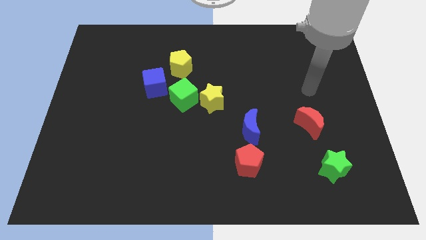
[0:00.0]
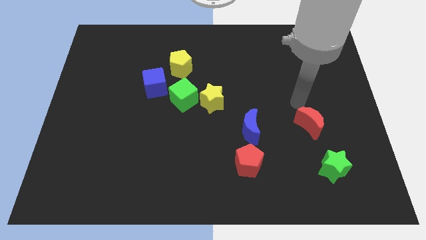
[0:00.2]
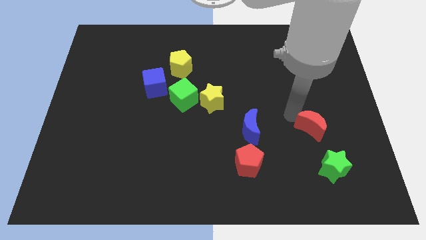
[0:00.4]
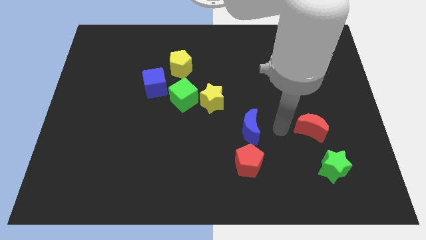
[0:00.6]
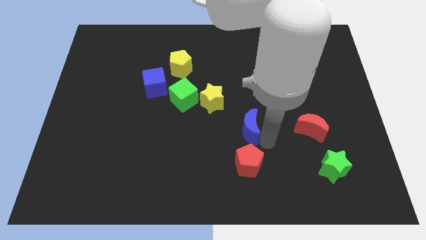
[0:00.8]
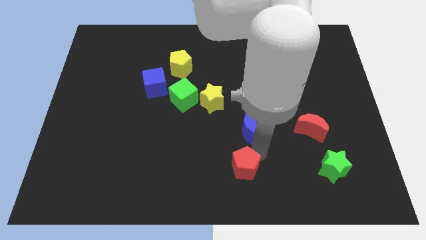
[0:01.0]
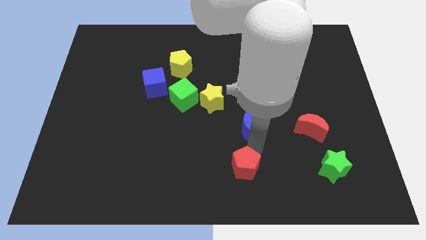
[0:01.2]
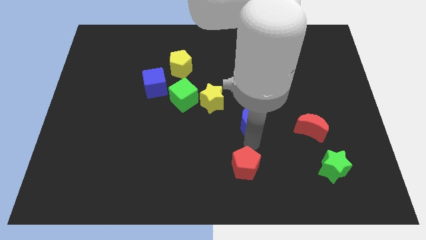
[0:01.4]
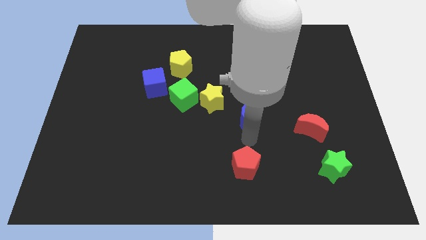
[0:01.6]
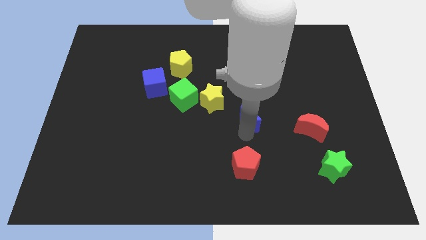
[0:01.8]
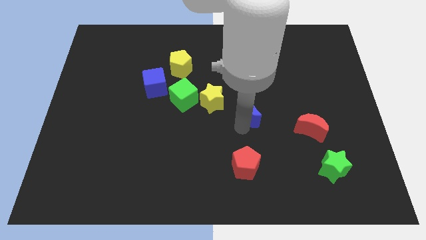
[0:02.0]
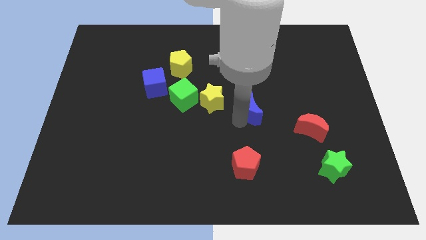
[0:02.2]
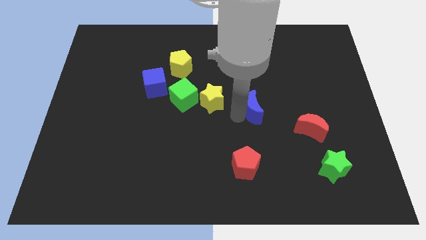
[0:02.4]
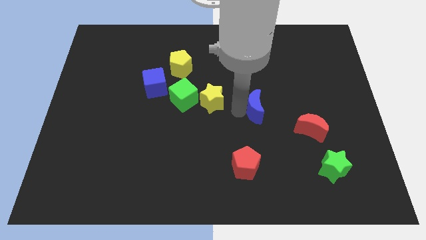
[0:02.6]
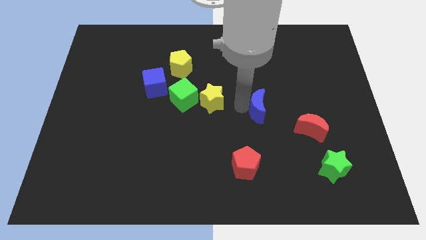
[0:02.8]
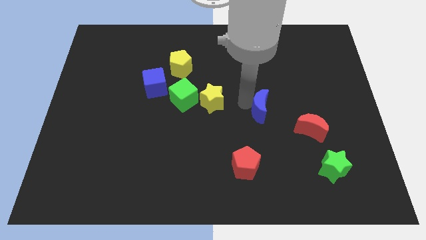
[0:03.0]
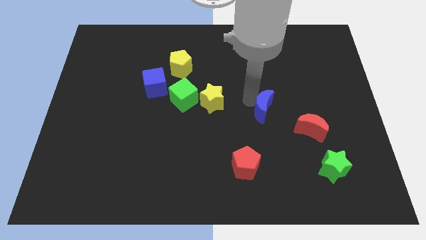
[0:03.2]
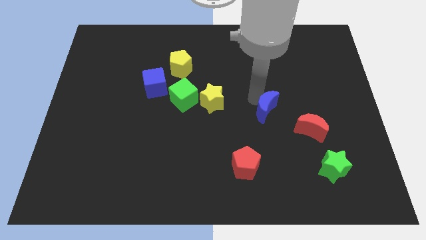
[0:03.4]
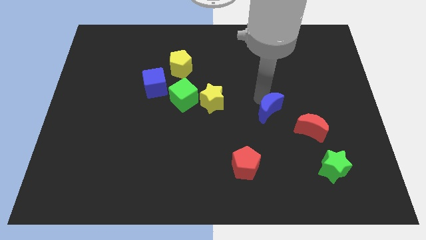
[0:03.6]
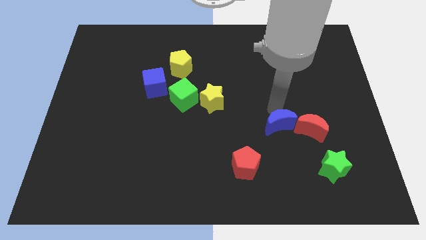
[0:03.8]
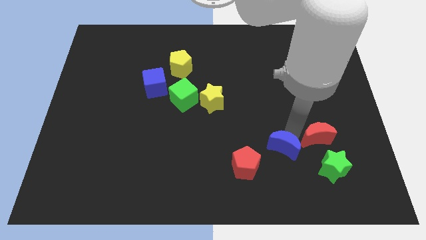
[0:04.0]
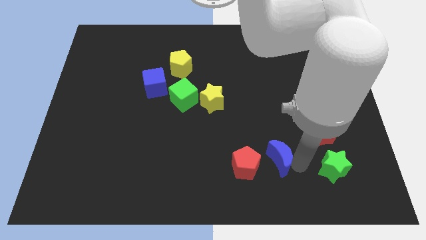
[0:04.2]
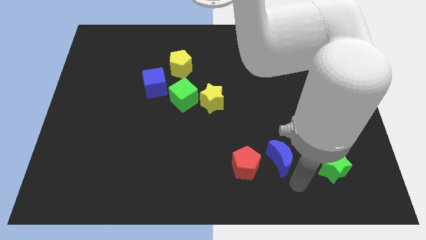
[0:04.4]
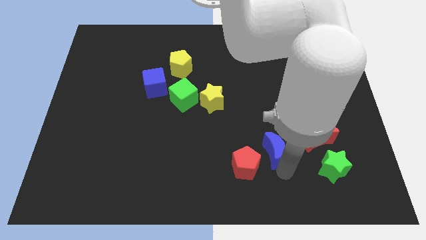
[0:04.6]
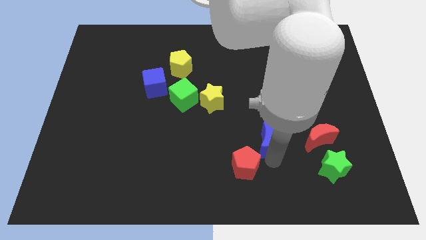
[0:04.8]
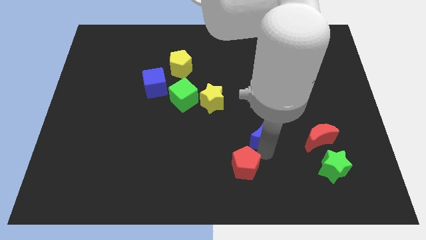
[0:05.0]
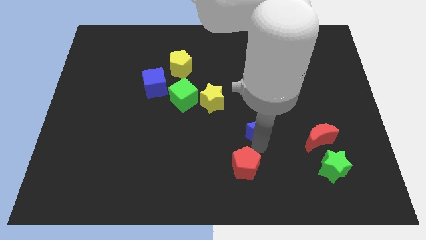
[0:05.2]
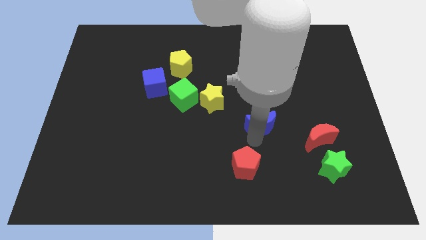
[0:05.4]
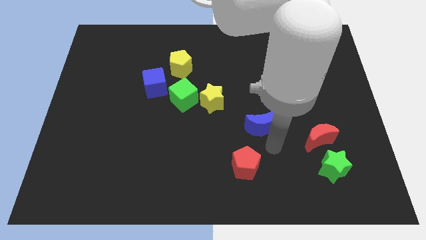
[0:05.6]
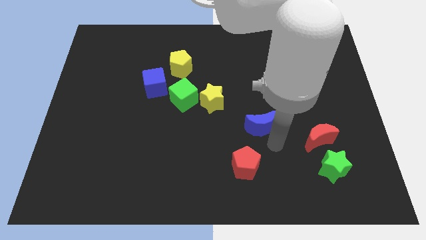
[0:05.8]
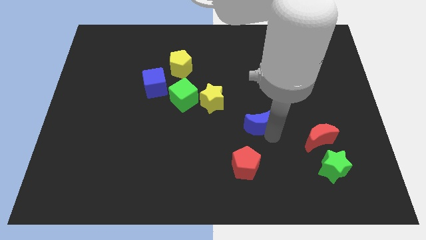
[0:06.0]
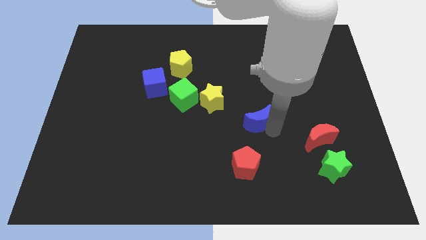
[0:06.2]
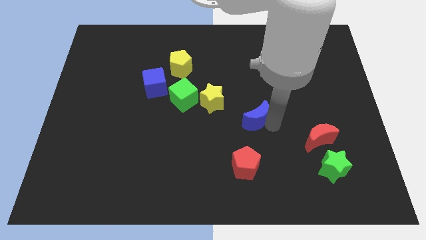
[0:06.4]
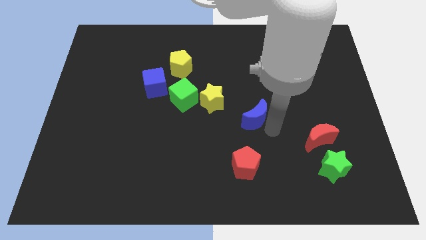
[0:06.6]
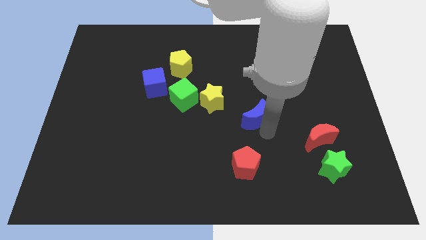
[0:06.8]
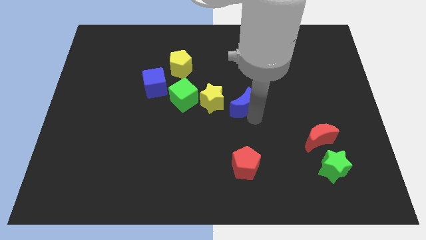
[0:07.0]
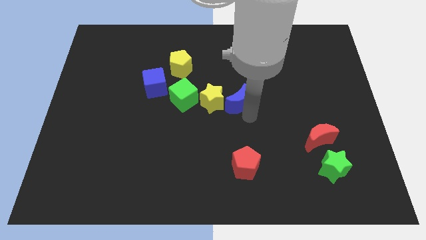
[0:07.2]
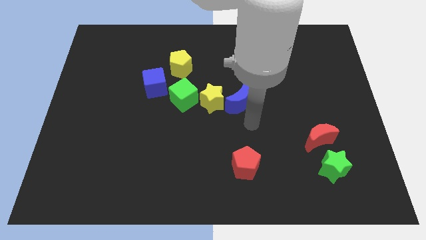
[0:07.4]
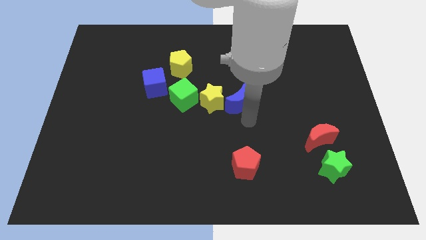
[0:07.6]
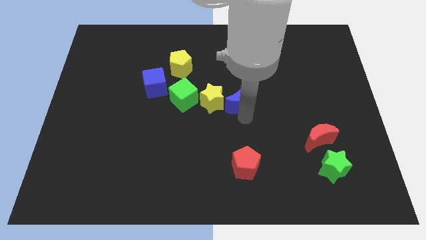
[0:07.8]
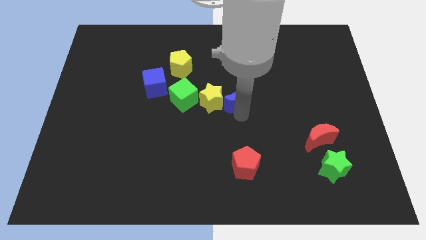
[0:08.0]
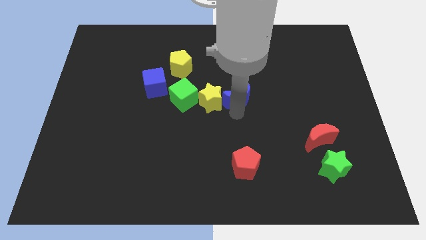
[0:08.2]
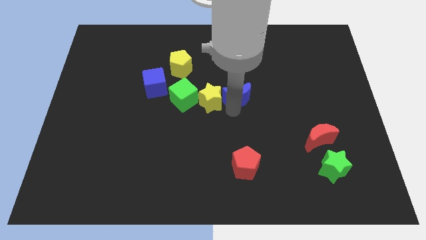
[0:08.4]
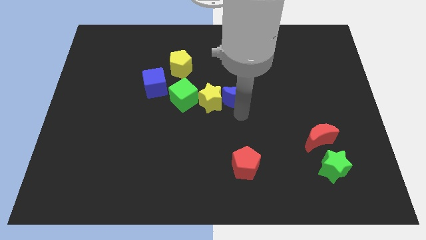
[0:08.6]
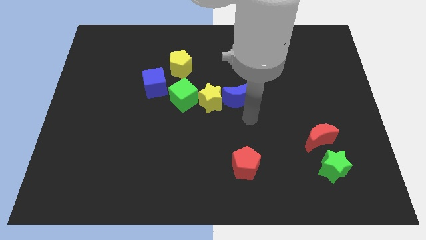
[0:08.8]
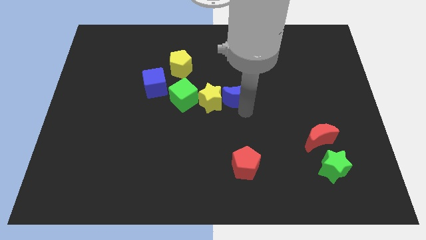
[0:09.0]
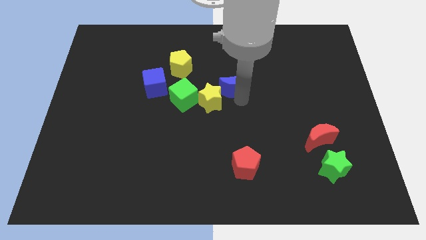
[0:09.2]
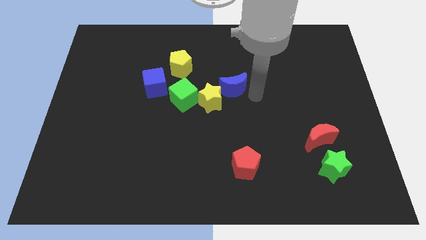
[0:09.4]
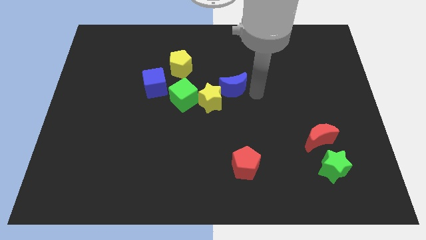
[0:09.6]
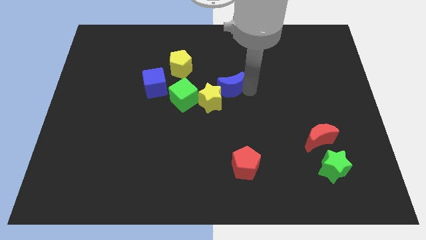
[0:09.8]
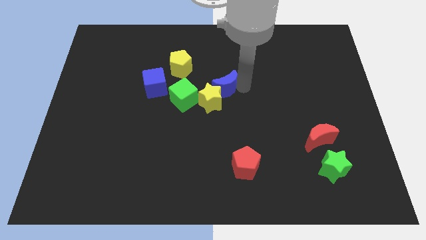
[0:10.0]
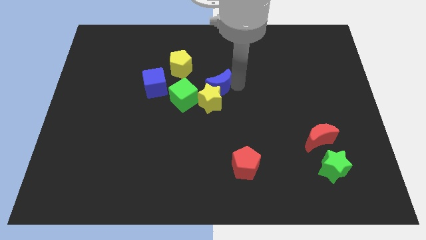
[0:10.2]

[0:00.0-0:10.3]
move the blue moon diagonally down and to the right of the yellow pentagon

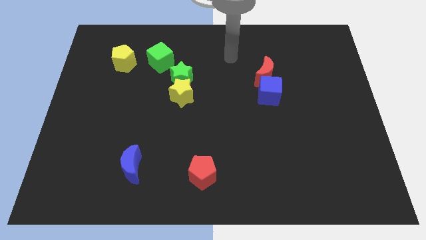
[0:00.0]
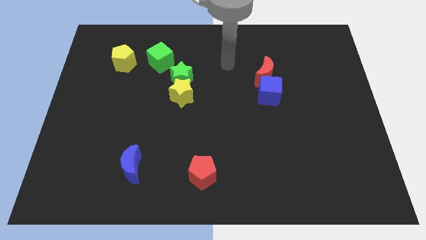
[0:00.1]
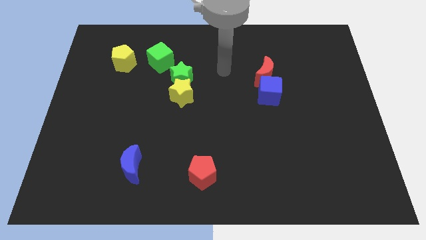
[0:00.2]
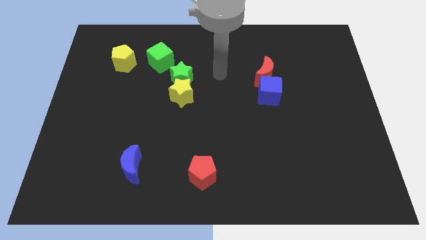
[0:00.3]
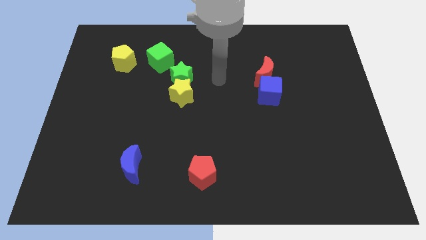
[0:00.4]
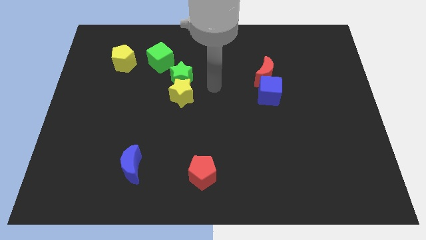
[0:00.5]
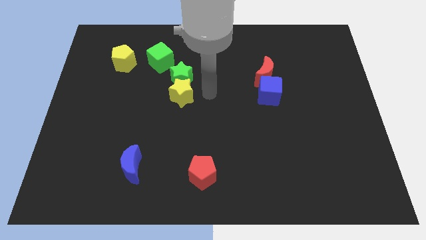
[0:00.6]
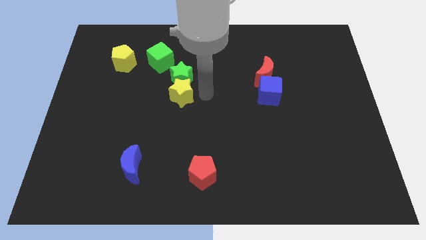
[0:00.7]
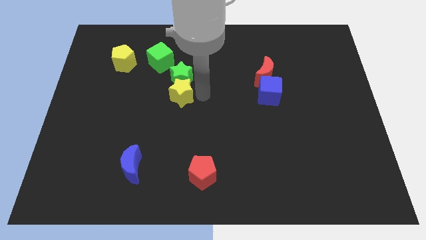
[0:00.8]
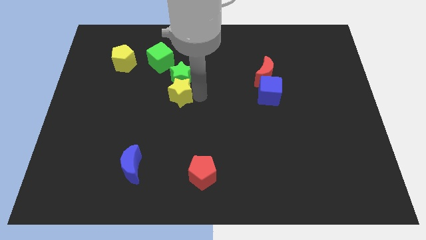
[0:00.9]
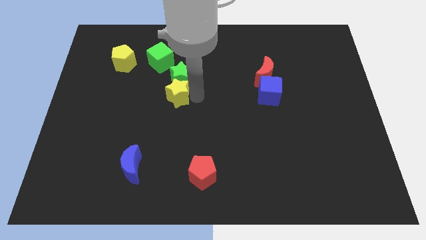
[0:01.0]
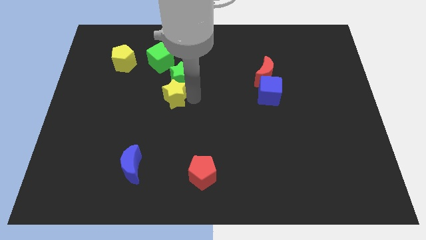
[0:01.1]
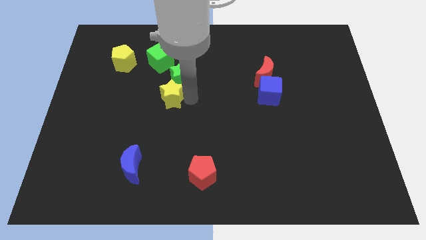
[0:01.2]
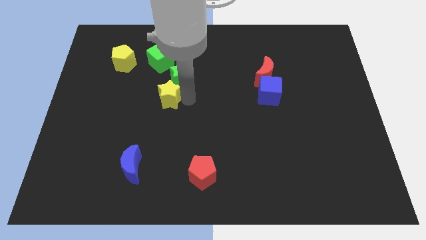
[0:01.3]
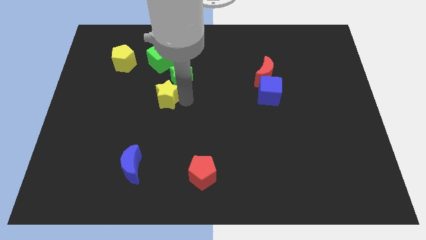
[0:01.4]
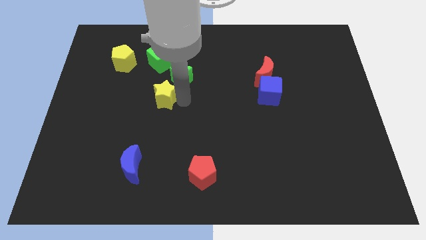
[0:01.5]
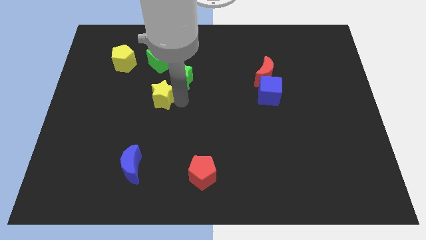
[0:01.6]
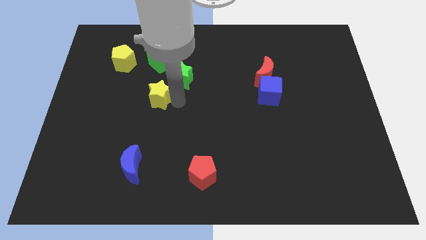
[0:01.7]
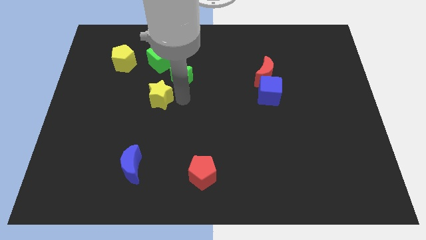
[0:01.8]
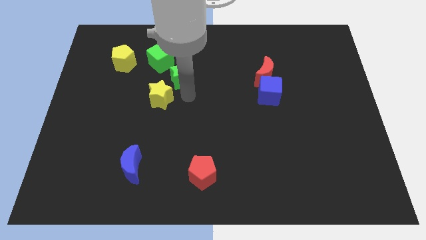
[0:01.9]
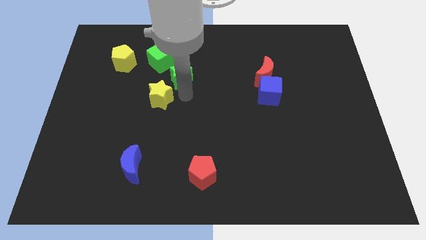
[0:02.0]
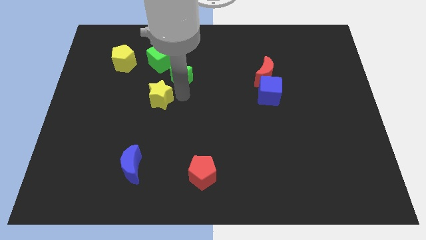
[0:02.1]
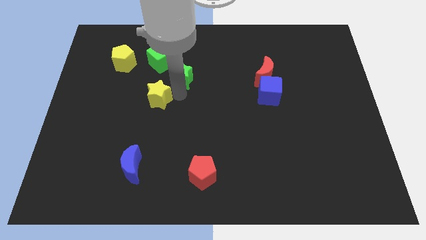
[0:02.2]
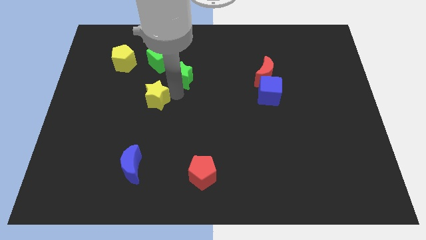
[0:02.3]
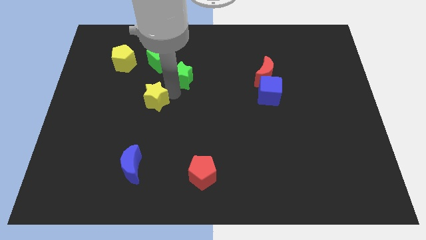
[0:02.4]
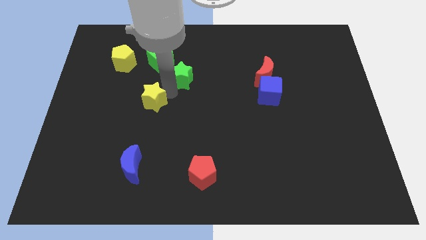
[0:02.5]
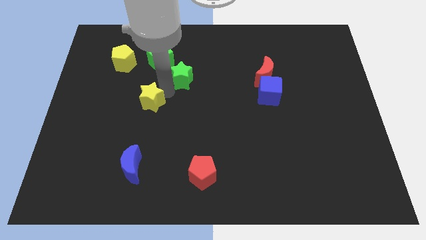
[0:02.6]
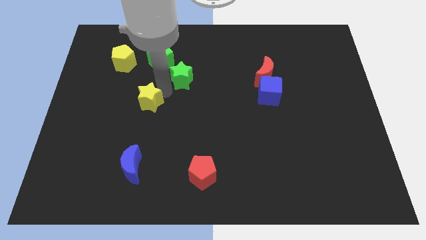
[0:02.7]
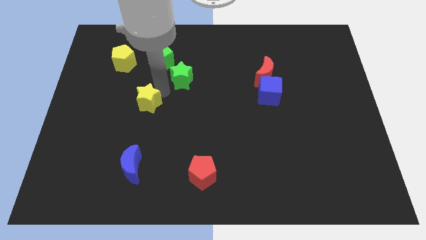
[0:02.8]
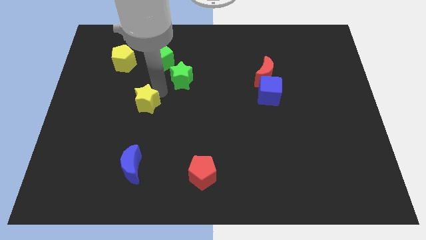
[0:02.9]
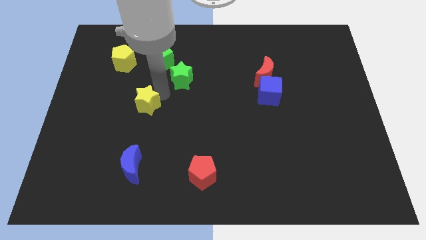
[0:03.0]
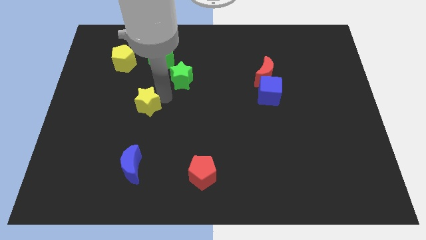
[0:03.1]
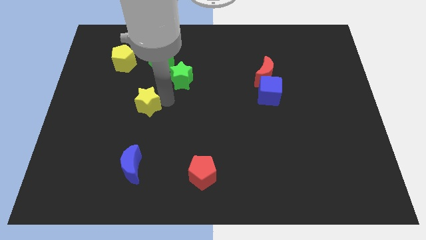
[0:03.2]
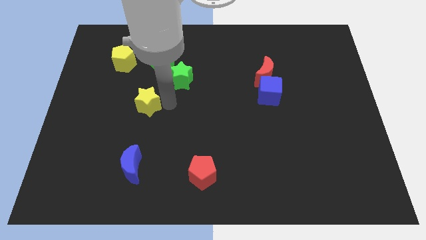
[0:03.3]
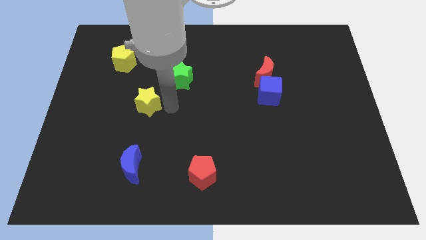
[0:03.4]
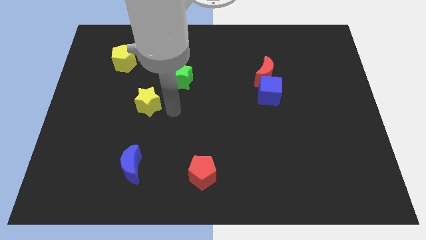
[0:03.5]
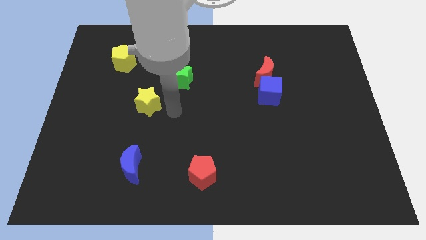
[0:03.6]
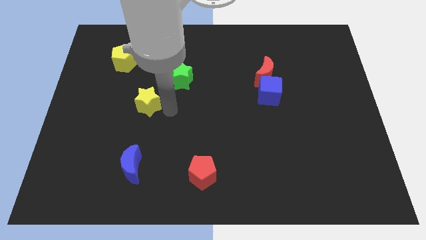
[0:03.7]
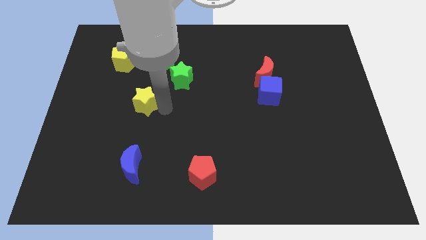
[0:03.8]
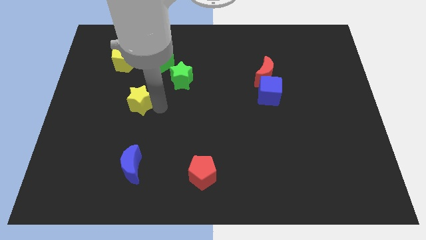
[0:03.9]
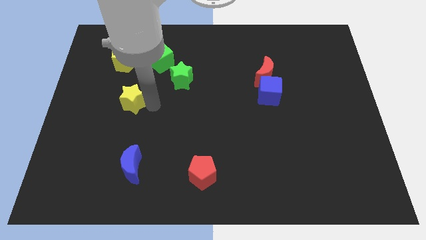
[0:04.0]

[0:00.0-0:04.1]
move the yellow star to the bottom of the yellow pentagon
